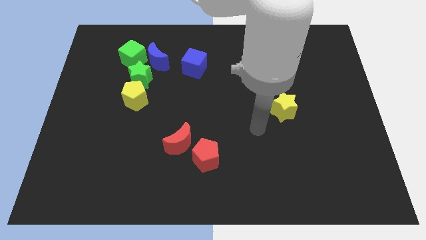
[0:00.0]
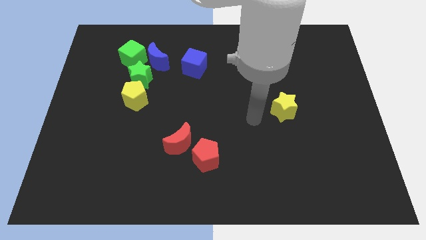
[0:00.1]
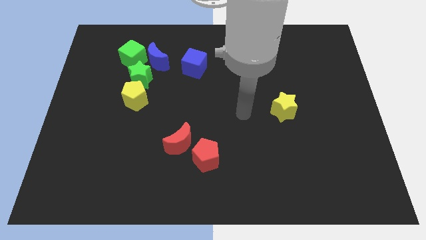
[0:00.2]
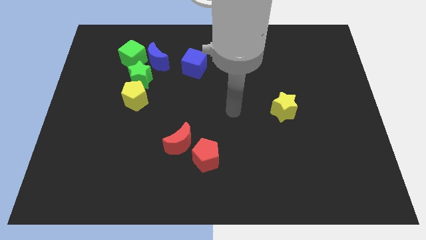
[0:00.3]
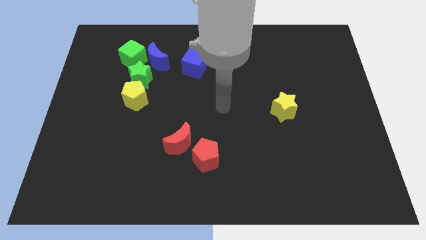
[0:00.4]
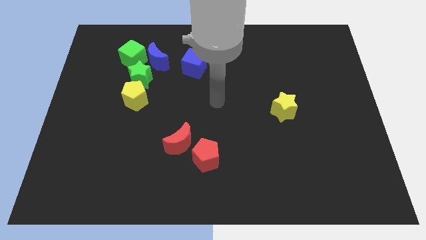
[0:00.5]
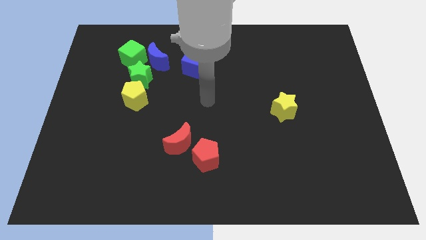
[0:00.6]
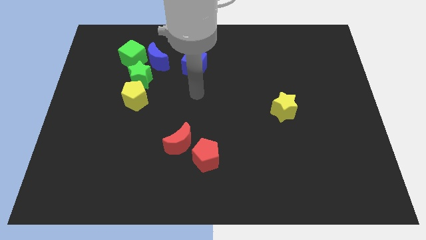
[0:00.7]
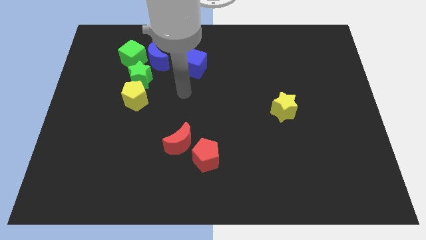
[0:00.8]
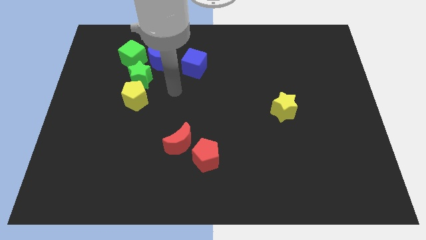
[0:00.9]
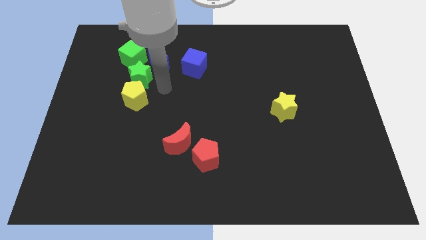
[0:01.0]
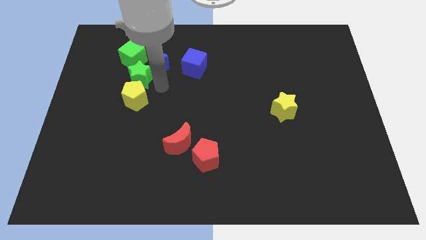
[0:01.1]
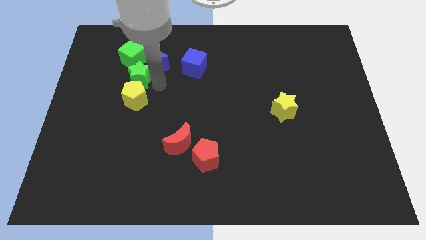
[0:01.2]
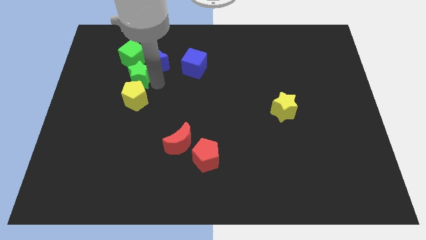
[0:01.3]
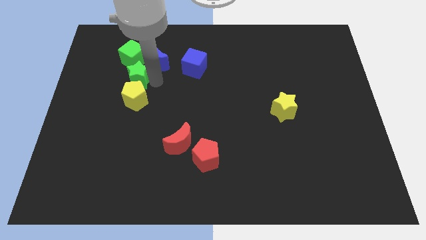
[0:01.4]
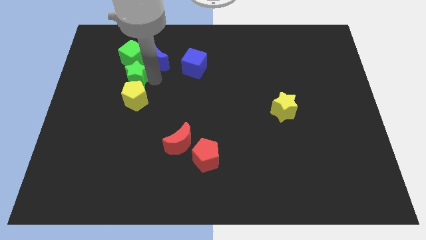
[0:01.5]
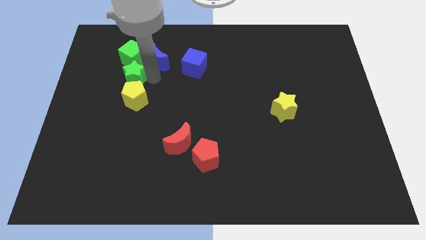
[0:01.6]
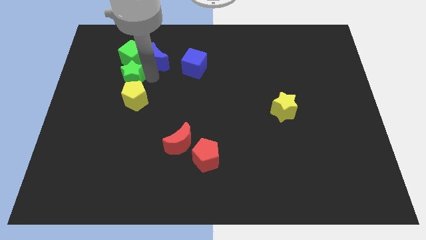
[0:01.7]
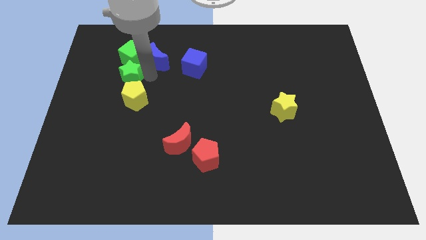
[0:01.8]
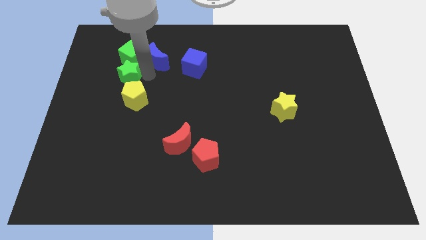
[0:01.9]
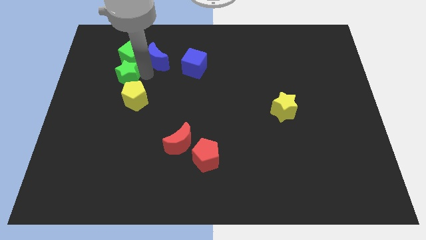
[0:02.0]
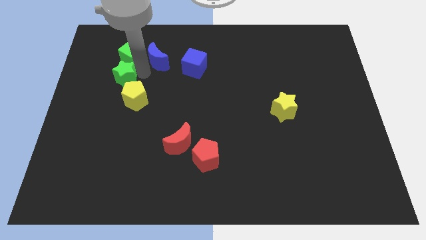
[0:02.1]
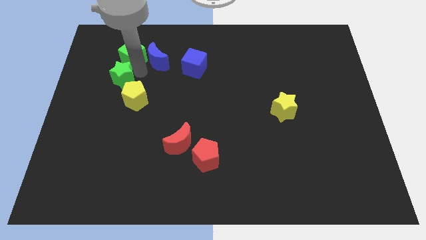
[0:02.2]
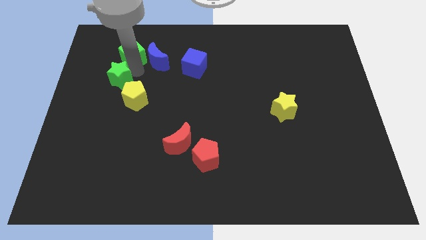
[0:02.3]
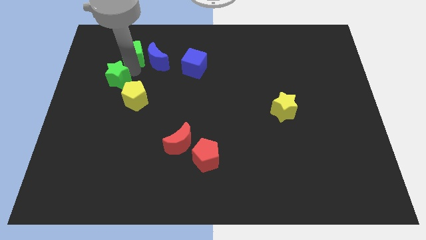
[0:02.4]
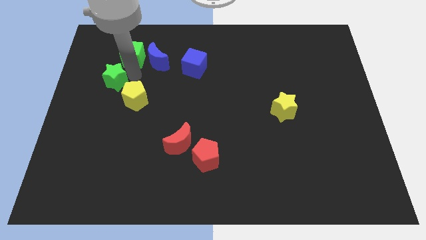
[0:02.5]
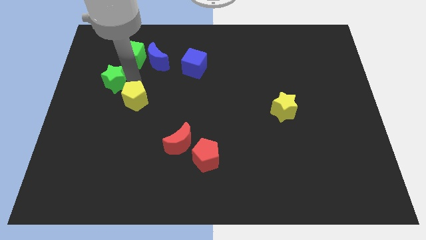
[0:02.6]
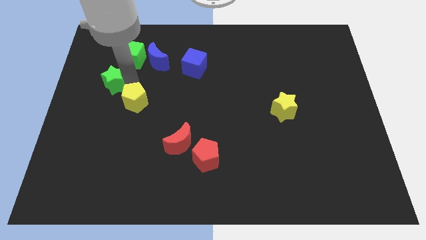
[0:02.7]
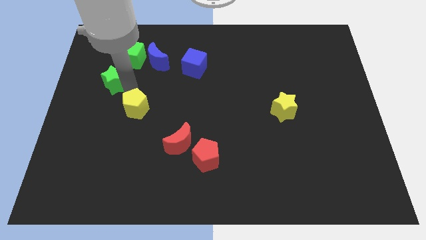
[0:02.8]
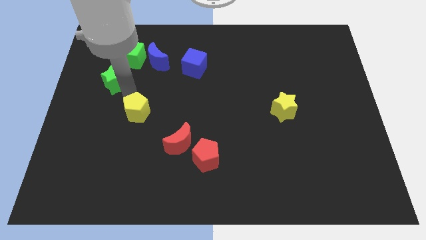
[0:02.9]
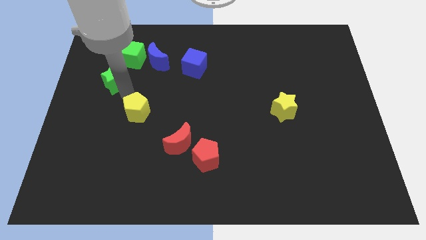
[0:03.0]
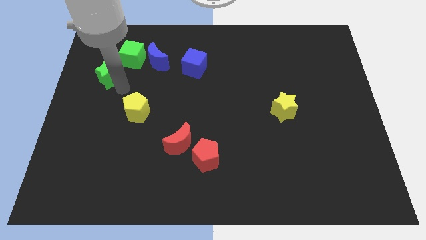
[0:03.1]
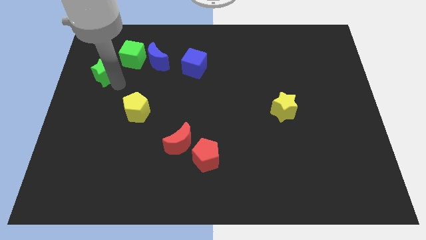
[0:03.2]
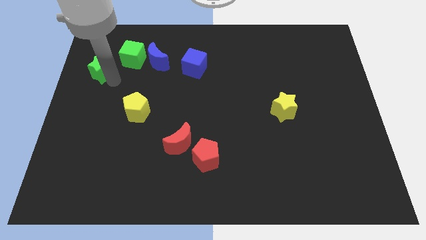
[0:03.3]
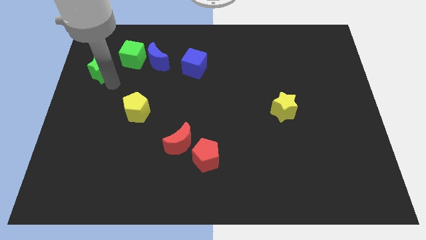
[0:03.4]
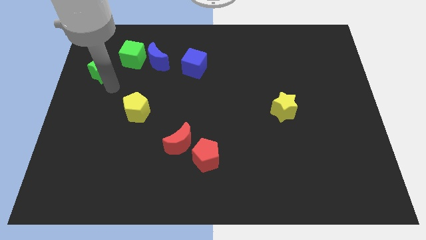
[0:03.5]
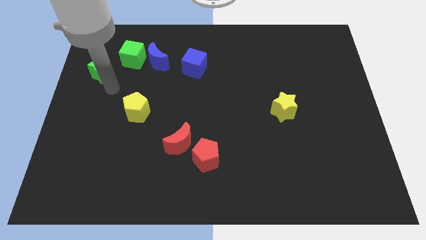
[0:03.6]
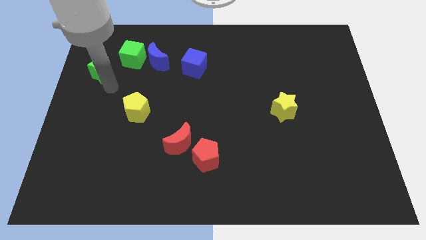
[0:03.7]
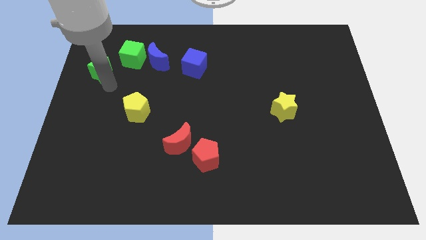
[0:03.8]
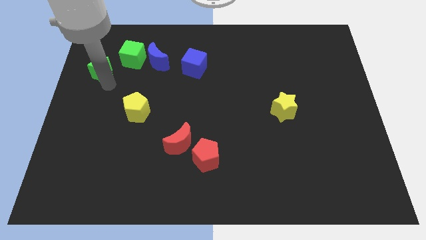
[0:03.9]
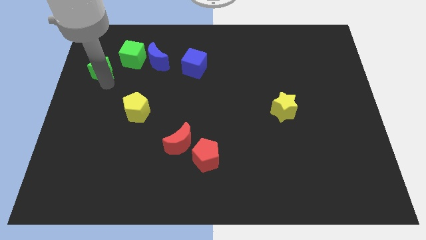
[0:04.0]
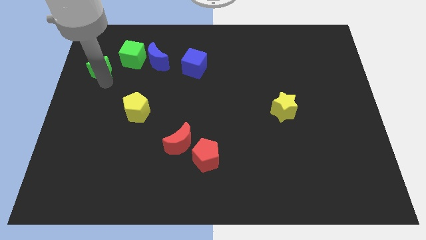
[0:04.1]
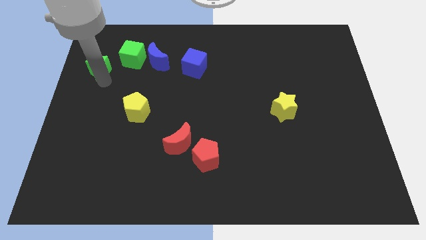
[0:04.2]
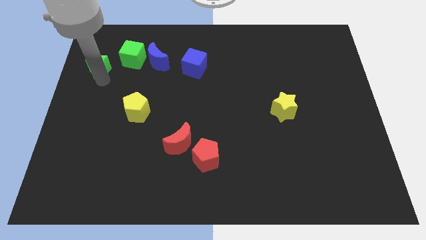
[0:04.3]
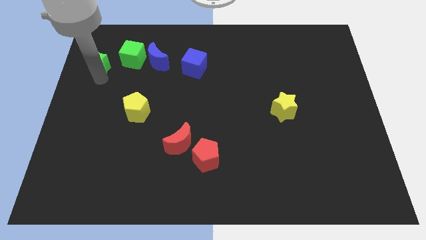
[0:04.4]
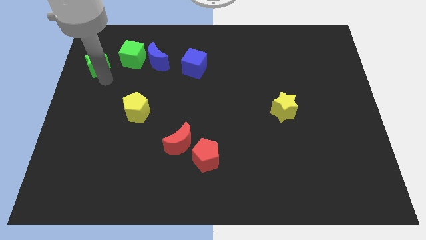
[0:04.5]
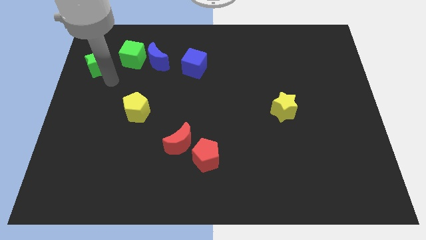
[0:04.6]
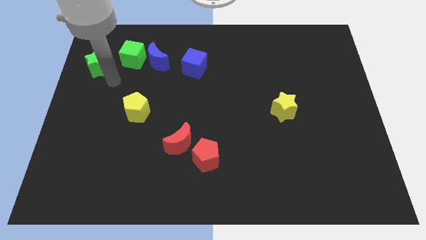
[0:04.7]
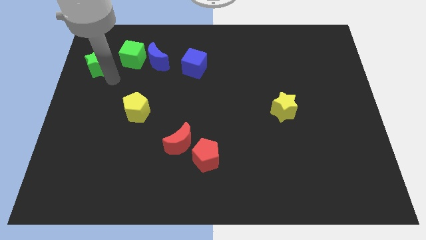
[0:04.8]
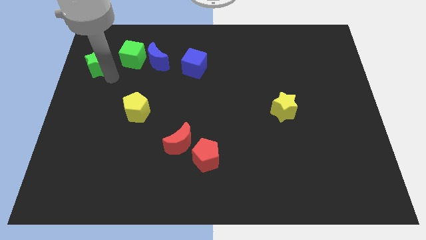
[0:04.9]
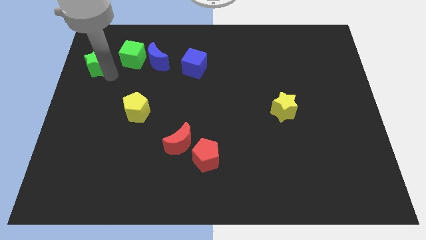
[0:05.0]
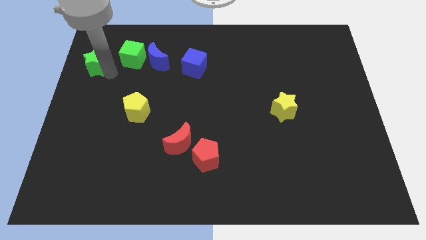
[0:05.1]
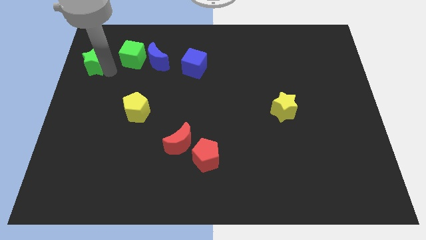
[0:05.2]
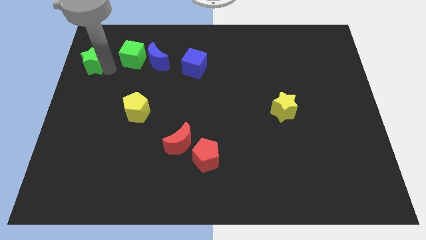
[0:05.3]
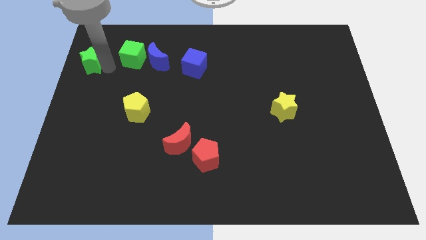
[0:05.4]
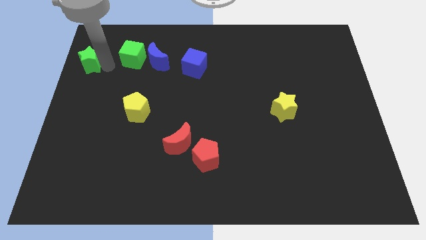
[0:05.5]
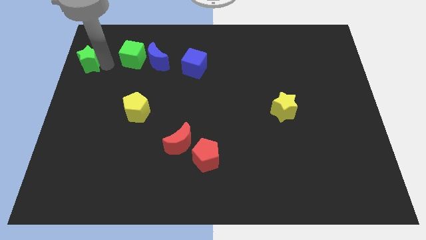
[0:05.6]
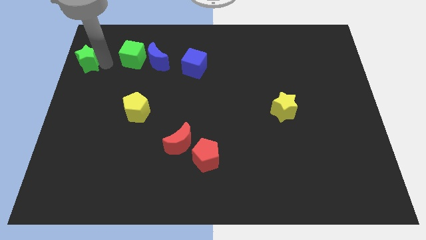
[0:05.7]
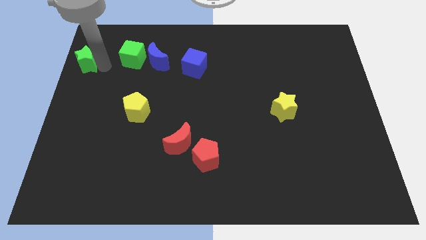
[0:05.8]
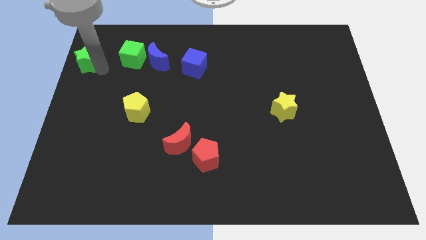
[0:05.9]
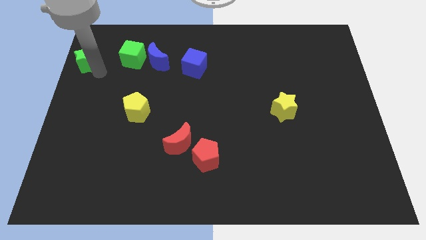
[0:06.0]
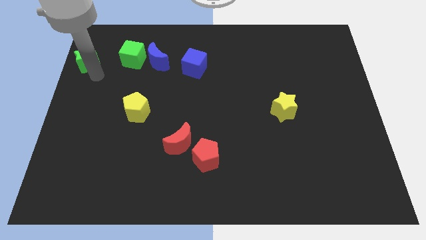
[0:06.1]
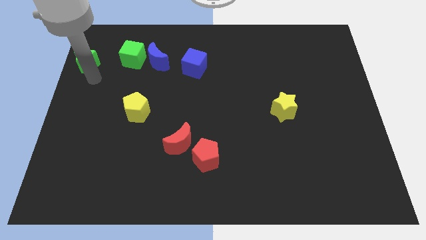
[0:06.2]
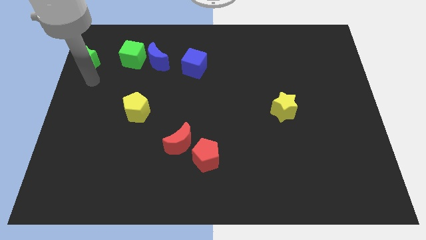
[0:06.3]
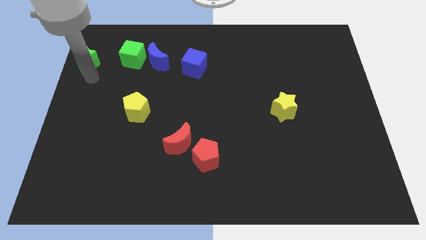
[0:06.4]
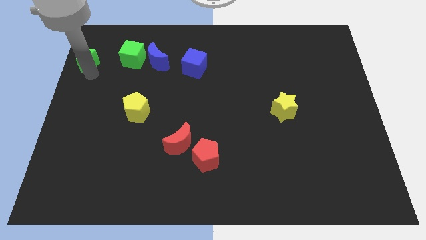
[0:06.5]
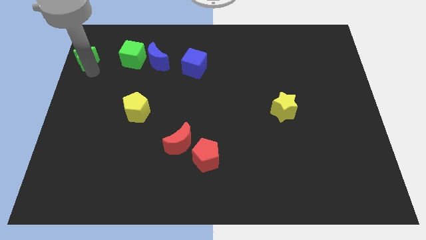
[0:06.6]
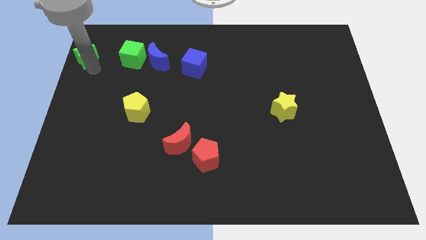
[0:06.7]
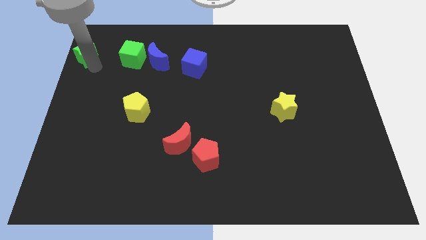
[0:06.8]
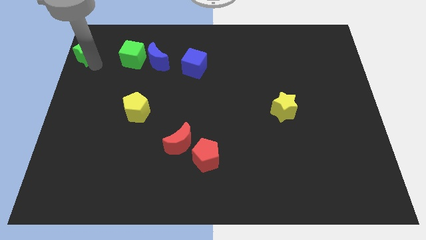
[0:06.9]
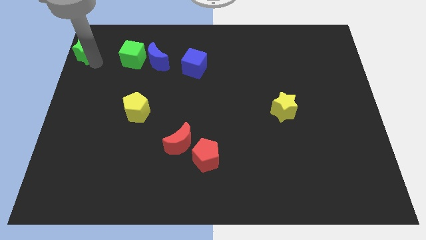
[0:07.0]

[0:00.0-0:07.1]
slide the green star to the upper left corner
